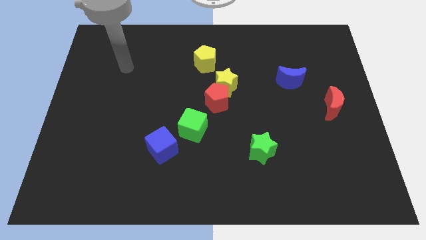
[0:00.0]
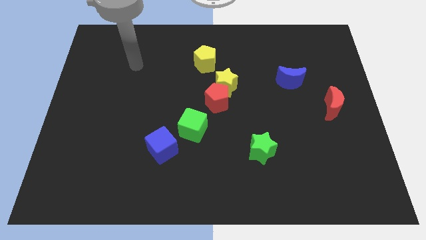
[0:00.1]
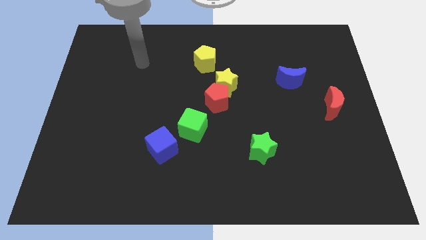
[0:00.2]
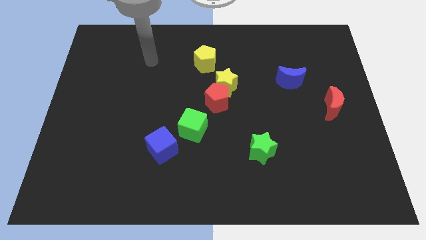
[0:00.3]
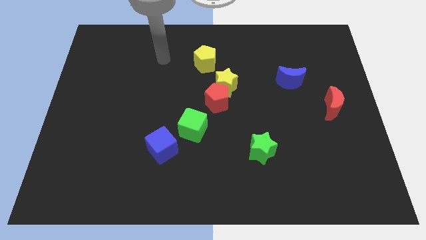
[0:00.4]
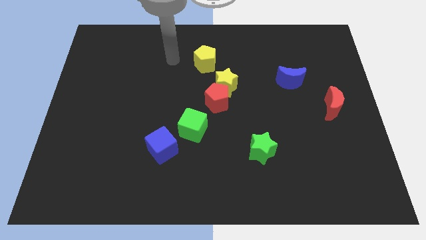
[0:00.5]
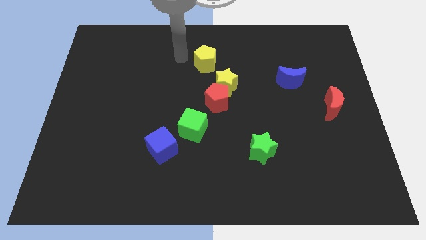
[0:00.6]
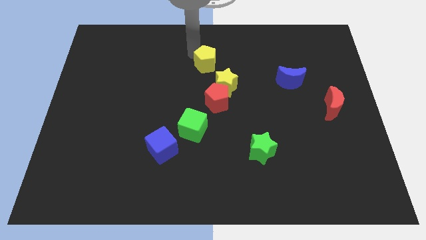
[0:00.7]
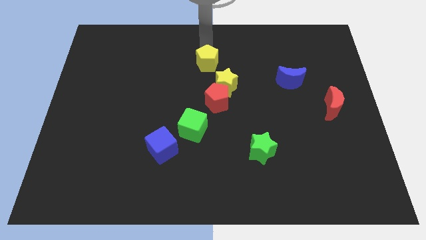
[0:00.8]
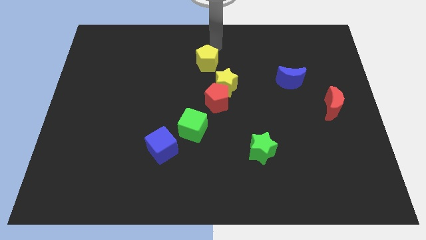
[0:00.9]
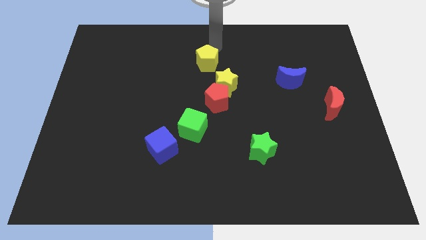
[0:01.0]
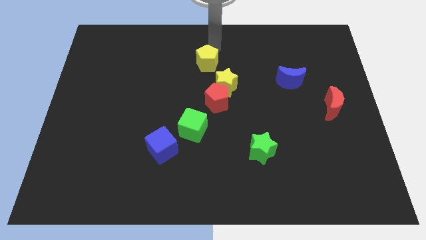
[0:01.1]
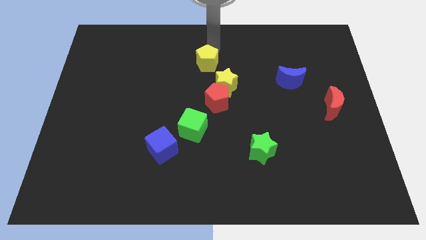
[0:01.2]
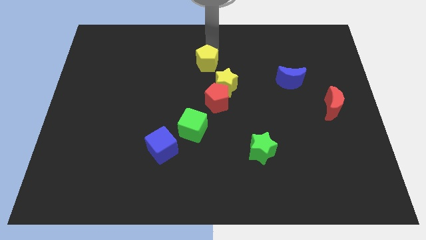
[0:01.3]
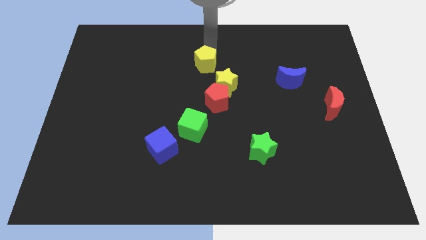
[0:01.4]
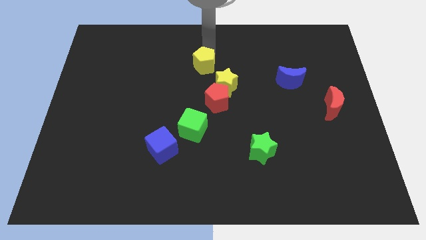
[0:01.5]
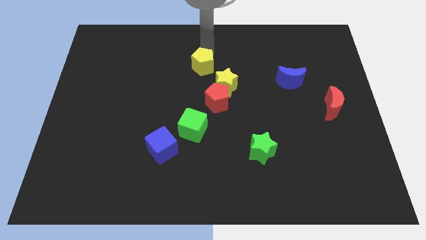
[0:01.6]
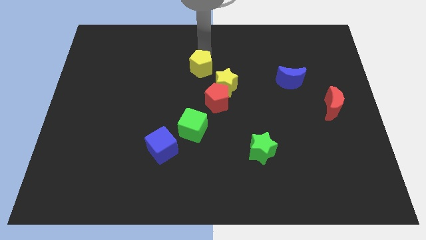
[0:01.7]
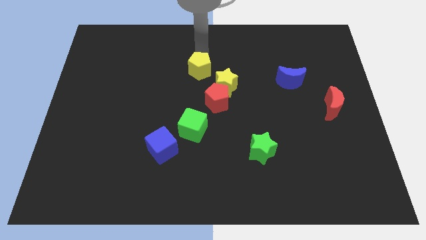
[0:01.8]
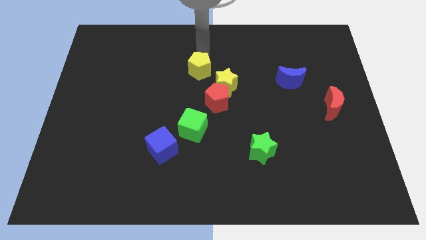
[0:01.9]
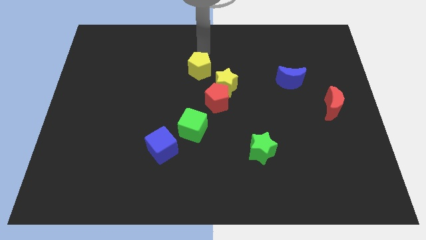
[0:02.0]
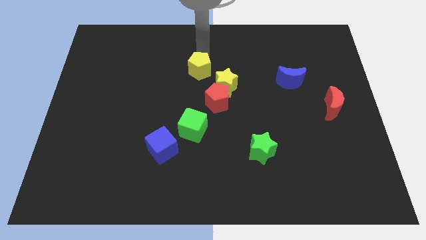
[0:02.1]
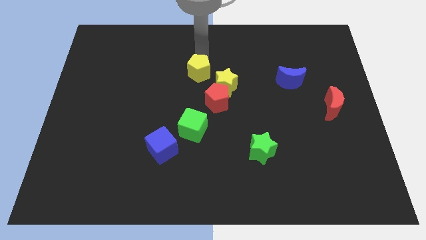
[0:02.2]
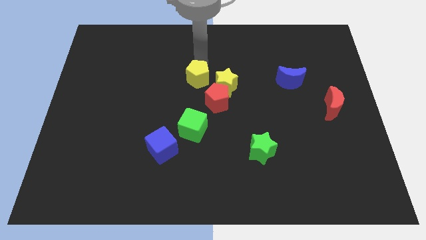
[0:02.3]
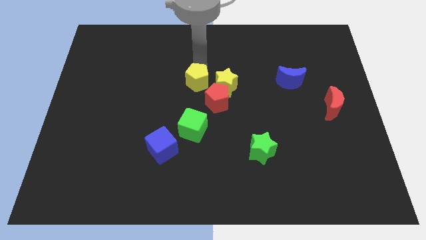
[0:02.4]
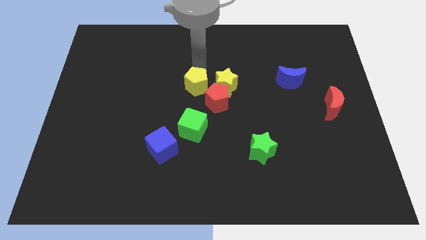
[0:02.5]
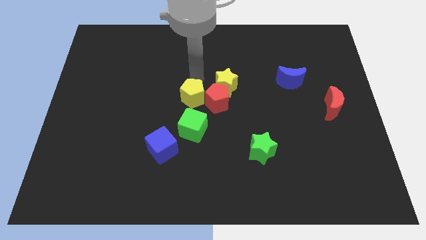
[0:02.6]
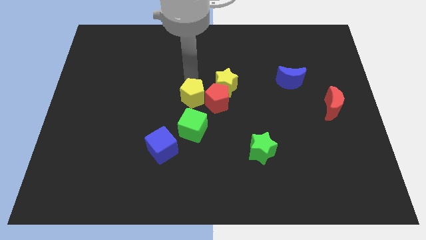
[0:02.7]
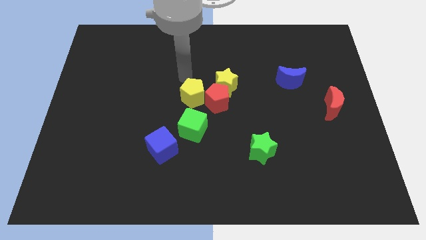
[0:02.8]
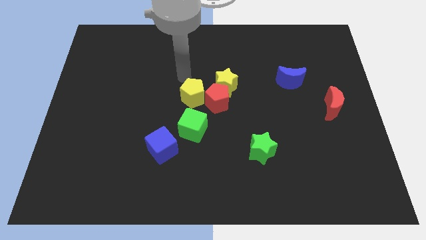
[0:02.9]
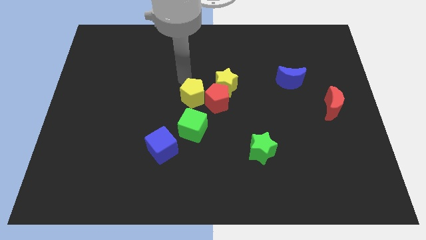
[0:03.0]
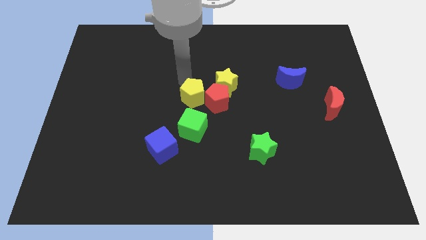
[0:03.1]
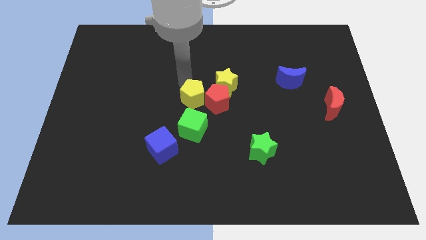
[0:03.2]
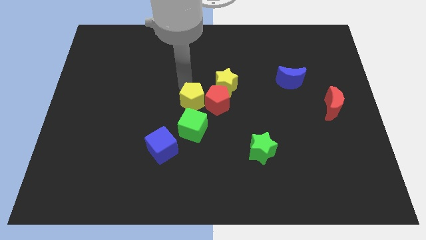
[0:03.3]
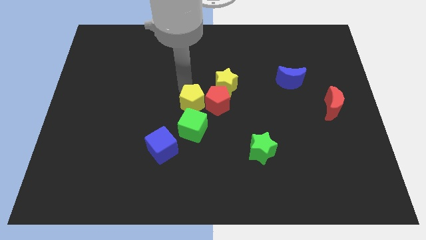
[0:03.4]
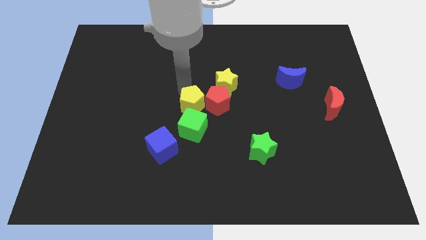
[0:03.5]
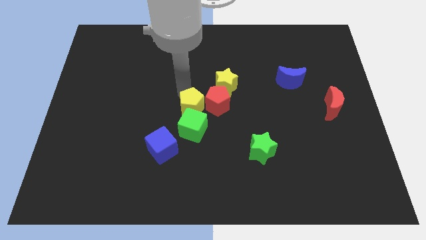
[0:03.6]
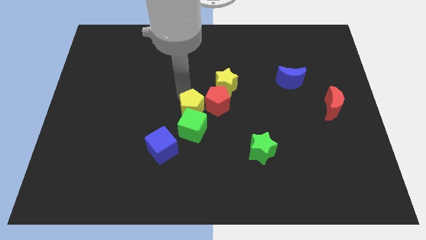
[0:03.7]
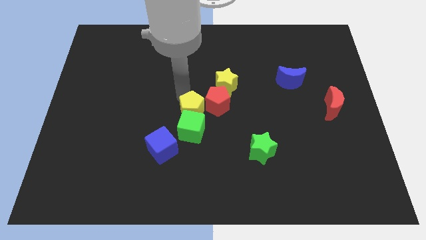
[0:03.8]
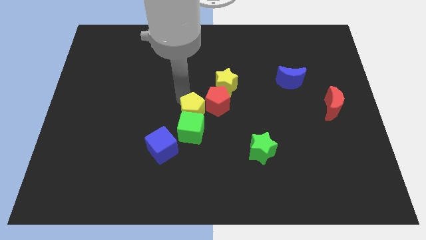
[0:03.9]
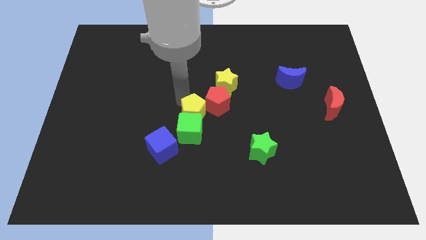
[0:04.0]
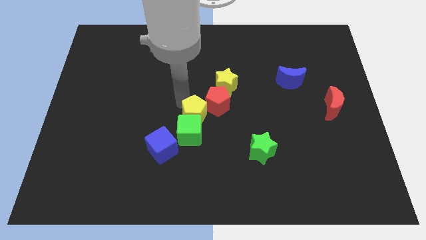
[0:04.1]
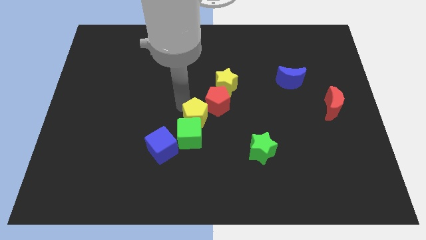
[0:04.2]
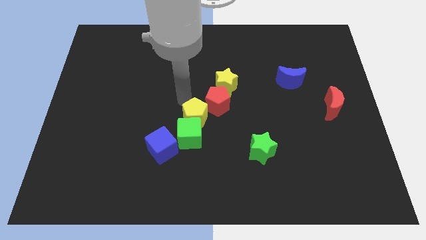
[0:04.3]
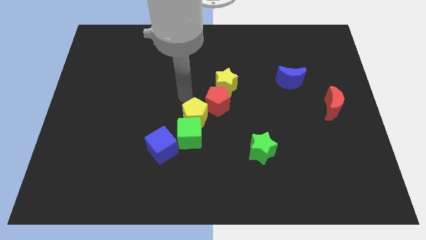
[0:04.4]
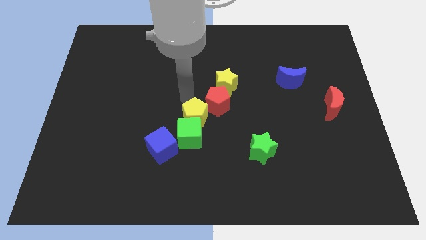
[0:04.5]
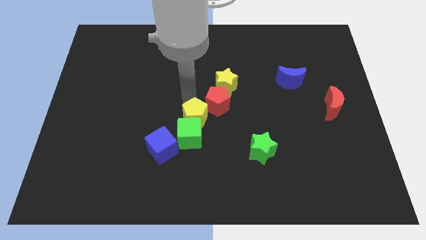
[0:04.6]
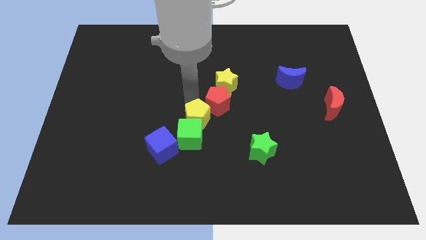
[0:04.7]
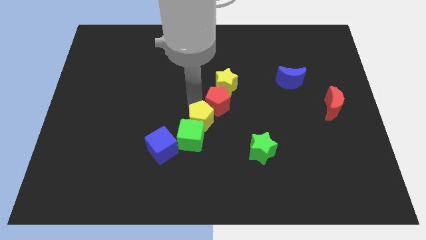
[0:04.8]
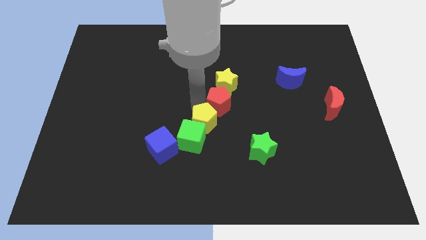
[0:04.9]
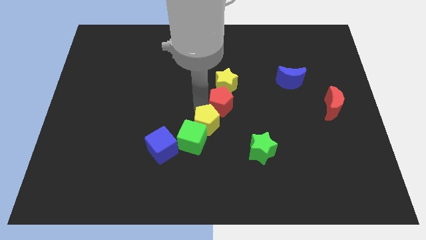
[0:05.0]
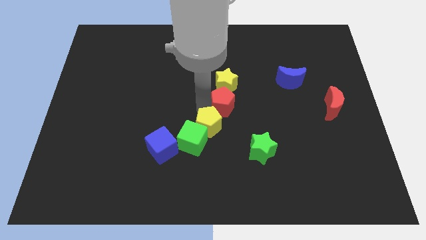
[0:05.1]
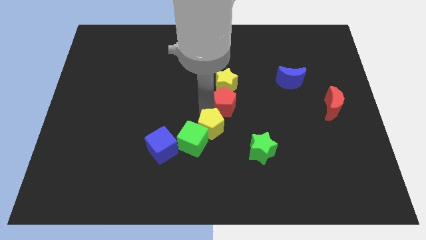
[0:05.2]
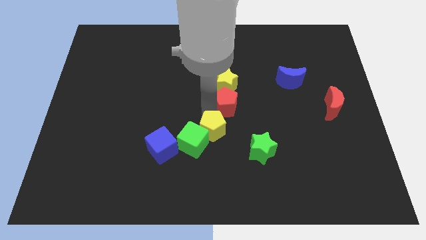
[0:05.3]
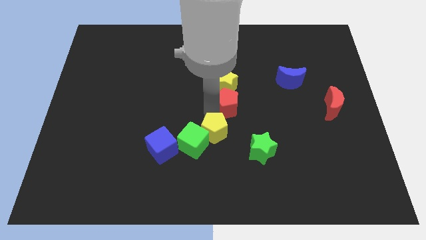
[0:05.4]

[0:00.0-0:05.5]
move the yellow pentagon just right of the blue cube

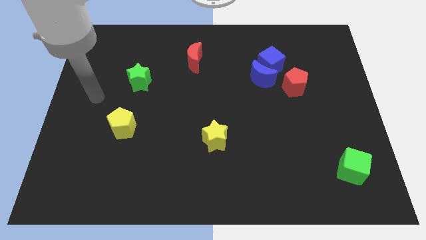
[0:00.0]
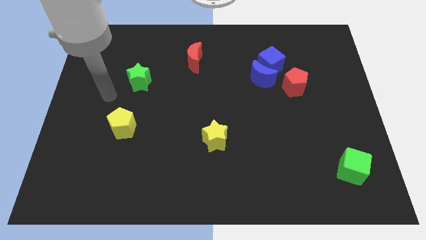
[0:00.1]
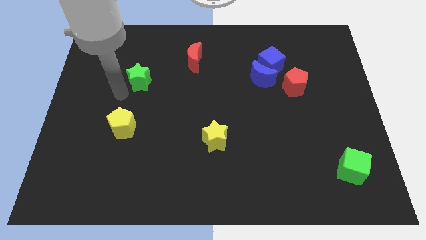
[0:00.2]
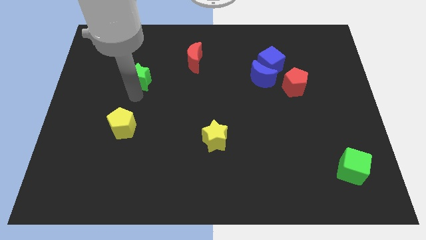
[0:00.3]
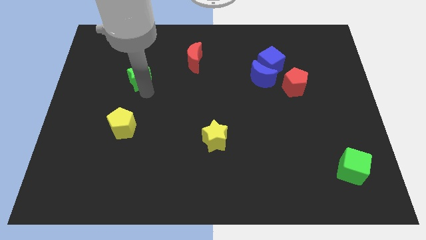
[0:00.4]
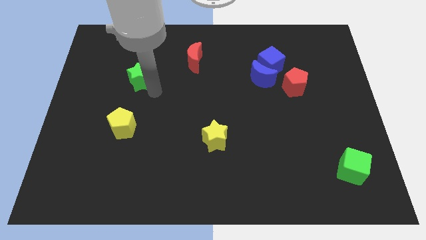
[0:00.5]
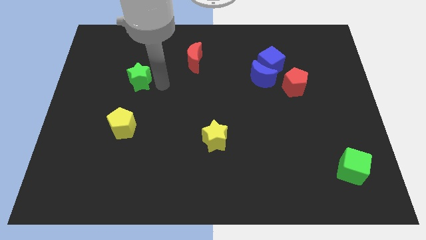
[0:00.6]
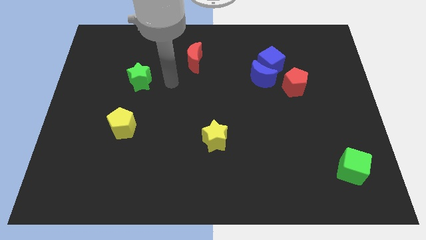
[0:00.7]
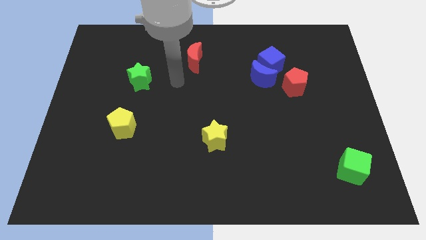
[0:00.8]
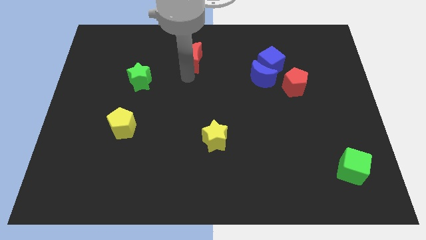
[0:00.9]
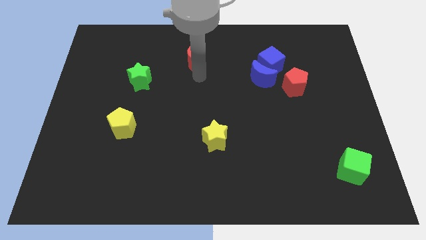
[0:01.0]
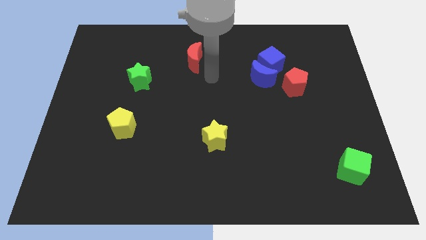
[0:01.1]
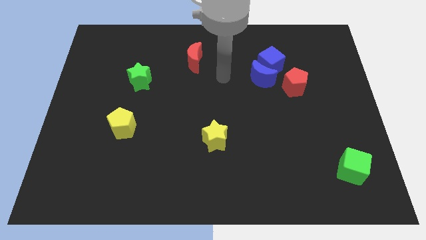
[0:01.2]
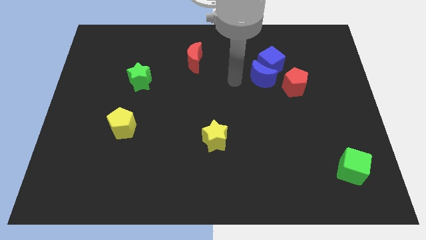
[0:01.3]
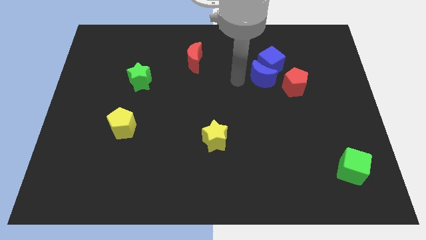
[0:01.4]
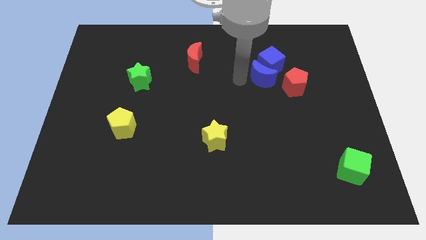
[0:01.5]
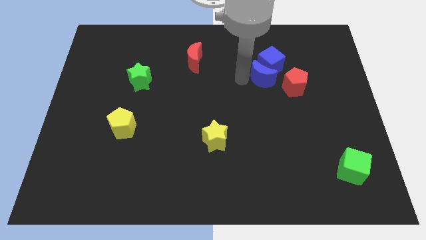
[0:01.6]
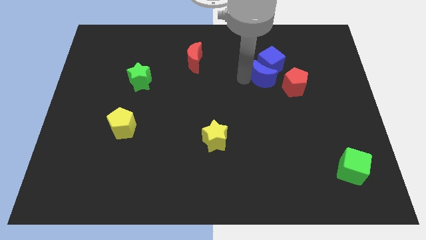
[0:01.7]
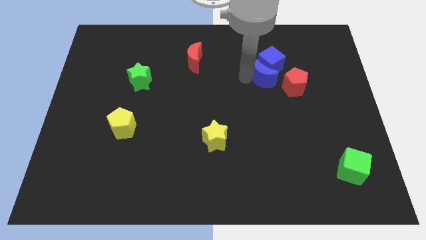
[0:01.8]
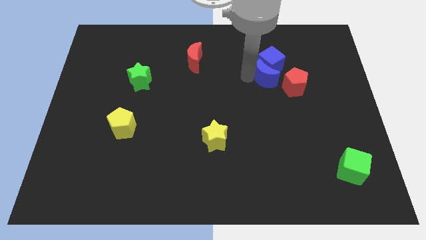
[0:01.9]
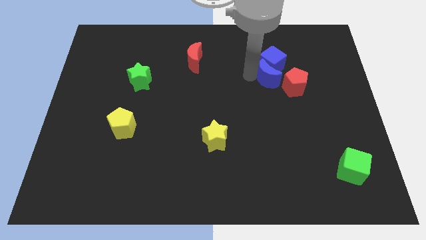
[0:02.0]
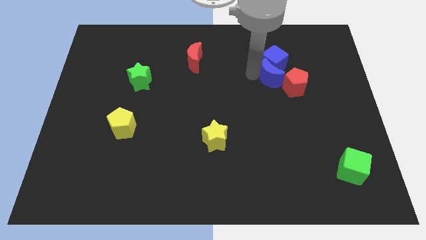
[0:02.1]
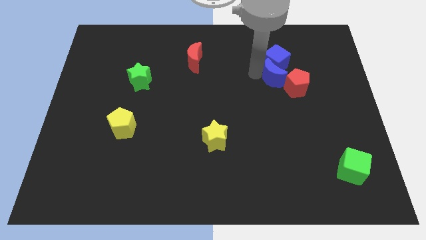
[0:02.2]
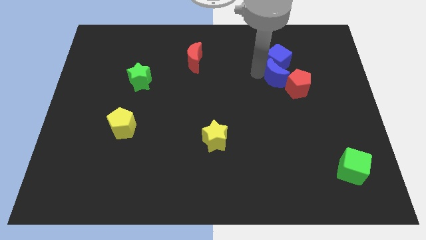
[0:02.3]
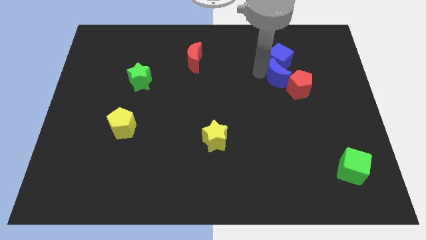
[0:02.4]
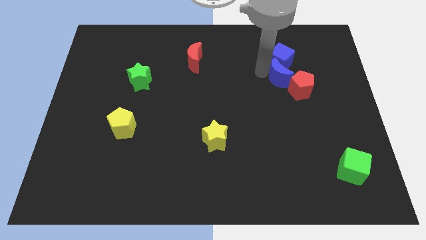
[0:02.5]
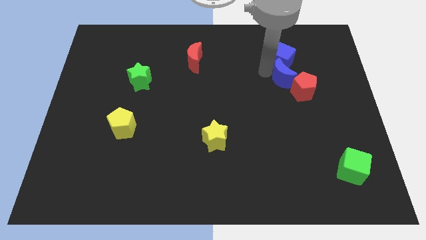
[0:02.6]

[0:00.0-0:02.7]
slide the blue moon to the top of the red pentagon
